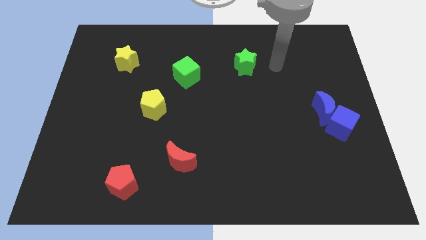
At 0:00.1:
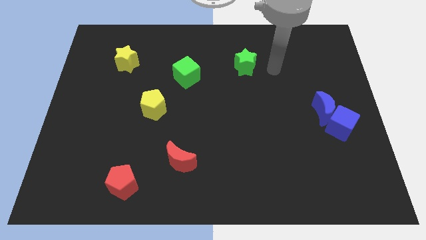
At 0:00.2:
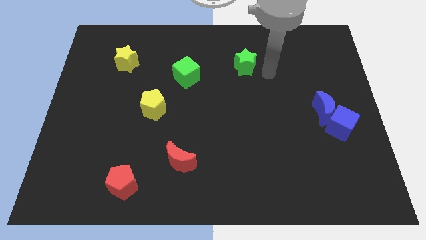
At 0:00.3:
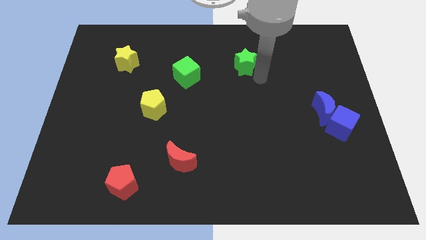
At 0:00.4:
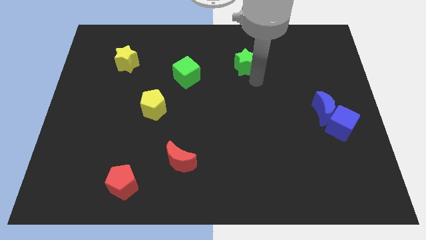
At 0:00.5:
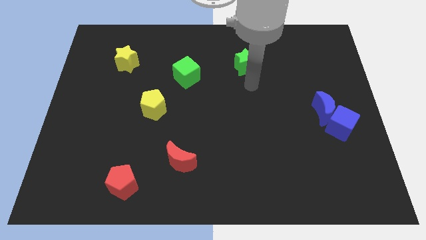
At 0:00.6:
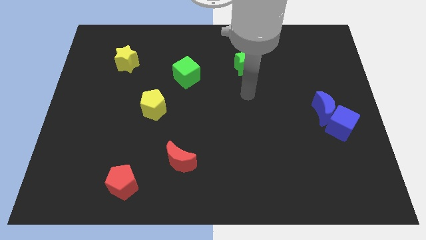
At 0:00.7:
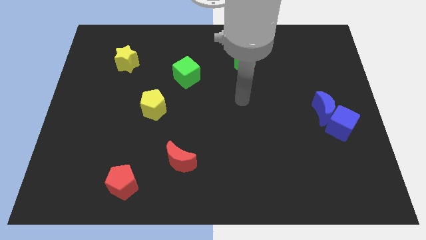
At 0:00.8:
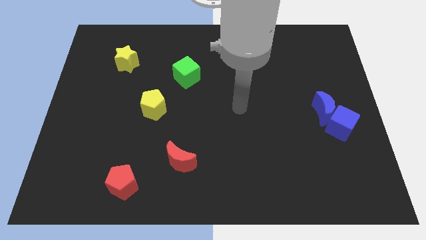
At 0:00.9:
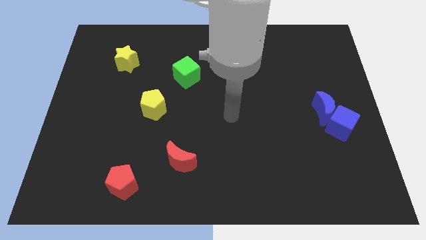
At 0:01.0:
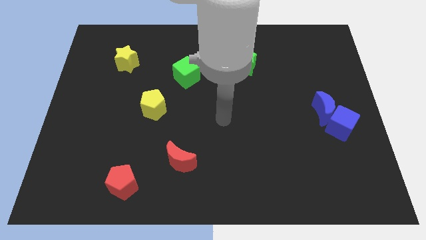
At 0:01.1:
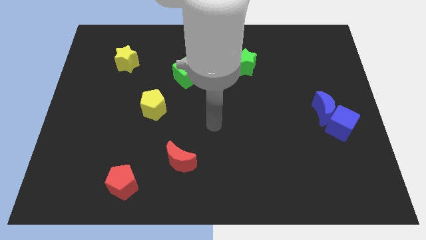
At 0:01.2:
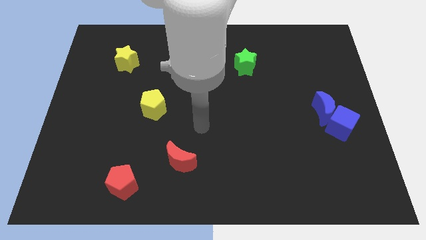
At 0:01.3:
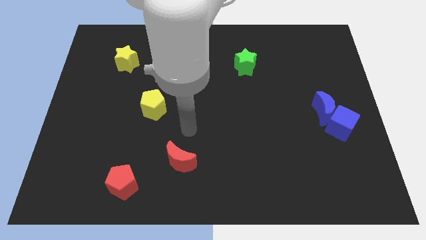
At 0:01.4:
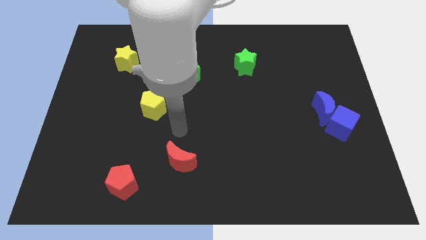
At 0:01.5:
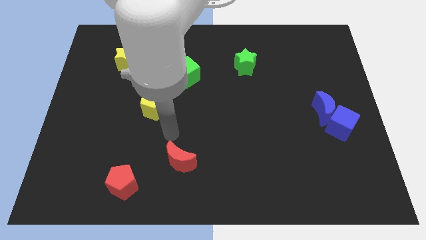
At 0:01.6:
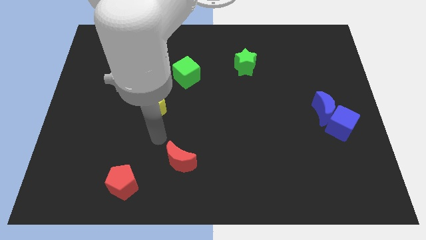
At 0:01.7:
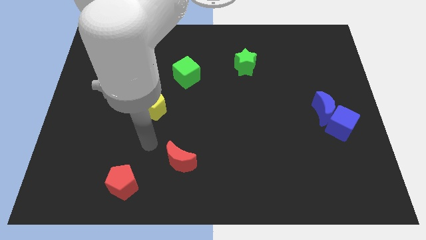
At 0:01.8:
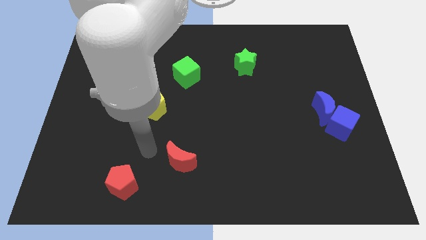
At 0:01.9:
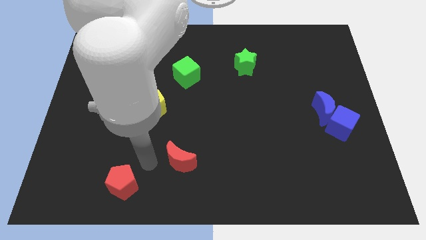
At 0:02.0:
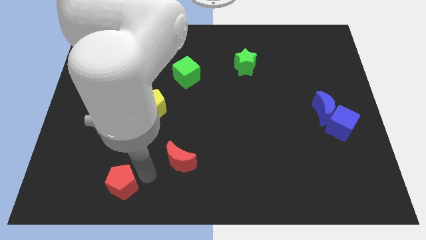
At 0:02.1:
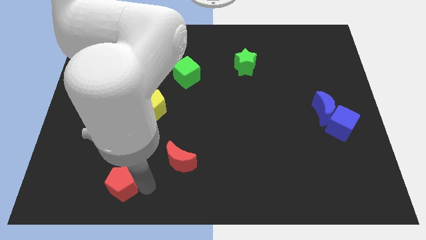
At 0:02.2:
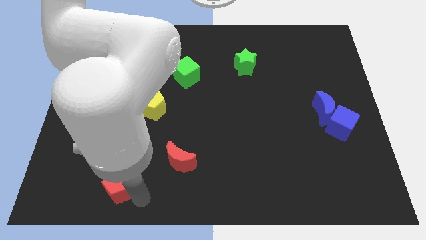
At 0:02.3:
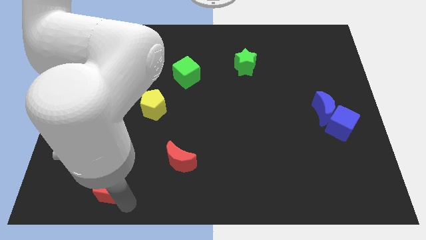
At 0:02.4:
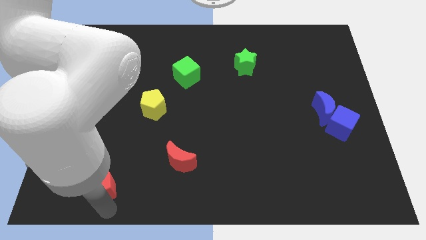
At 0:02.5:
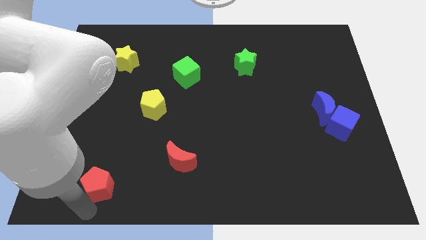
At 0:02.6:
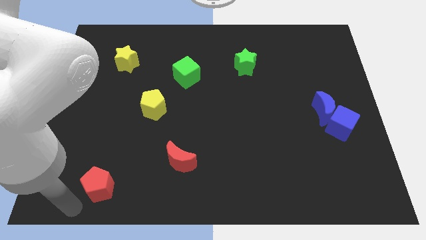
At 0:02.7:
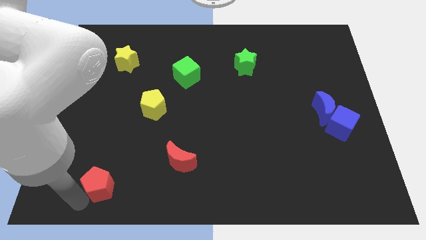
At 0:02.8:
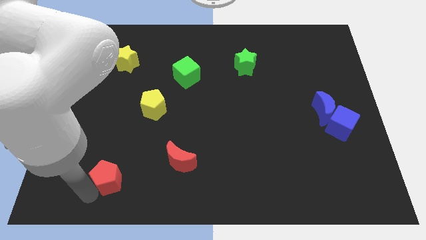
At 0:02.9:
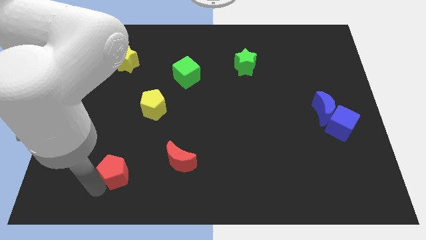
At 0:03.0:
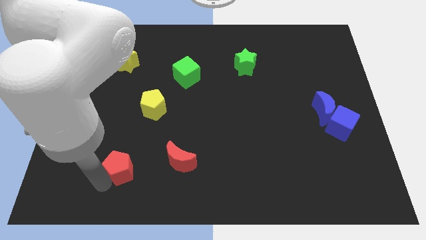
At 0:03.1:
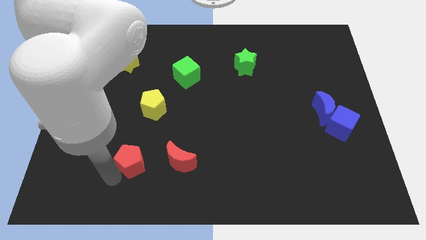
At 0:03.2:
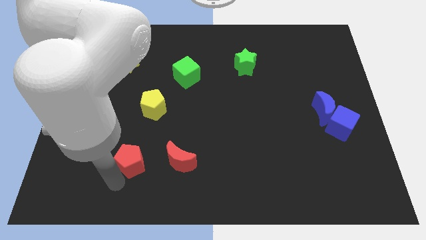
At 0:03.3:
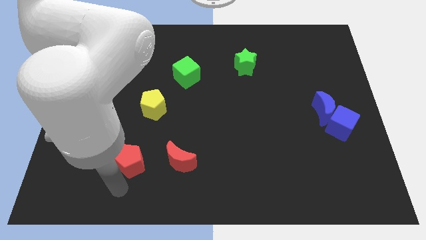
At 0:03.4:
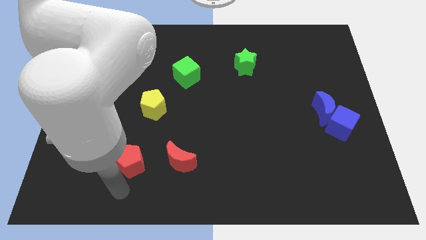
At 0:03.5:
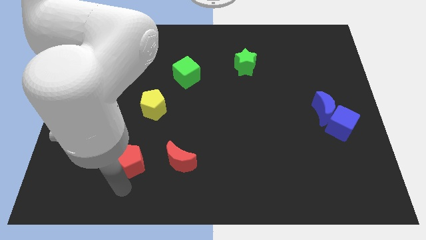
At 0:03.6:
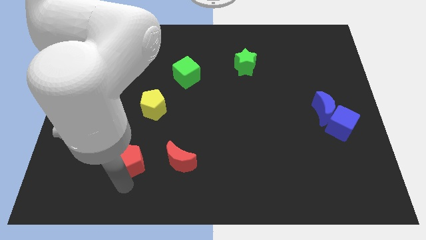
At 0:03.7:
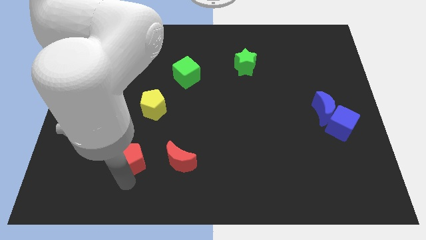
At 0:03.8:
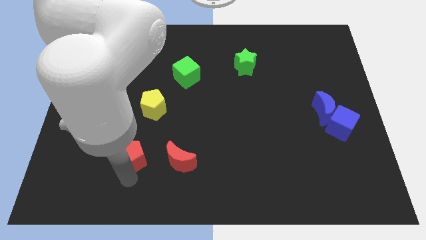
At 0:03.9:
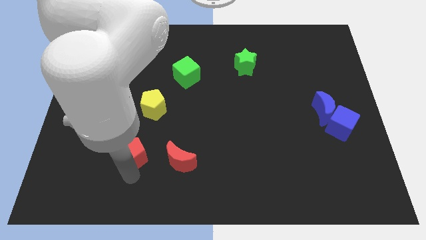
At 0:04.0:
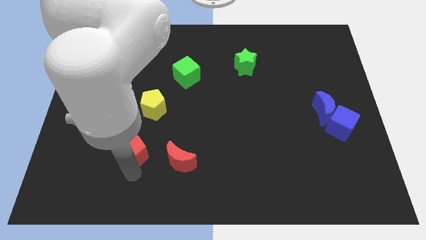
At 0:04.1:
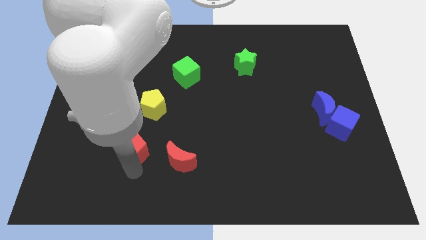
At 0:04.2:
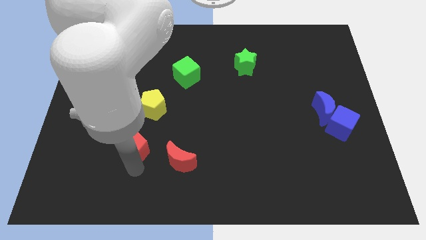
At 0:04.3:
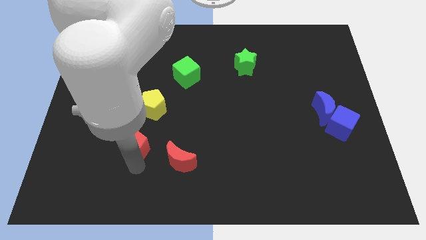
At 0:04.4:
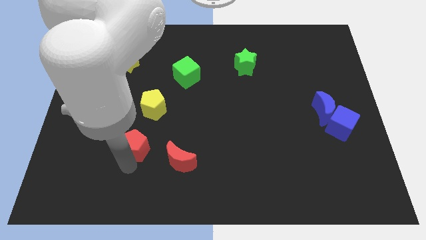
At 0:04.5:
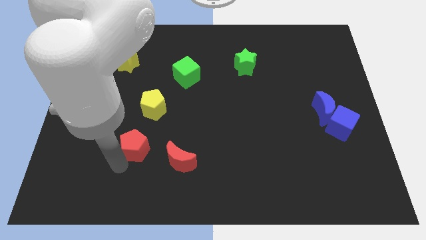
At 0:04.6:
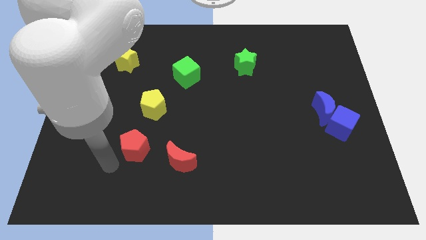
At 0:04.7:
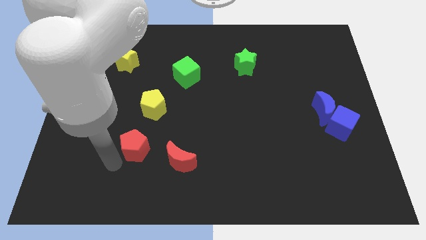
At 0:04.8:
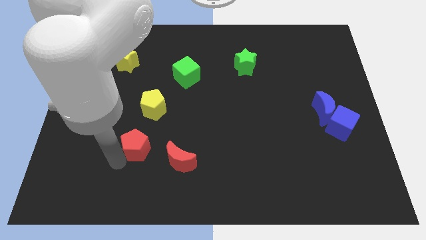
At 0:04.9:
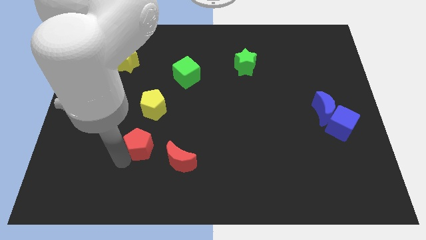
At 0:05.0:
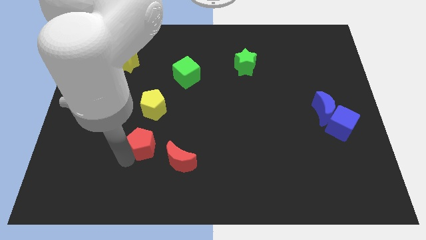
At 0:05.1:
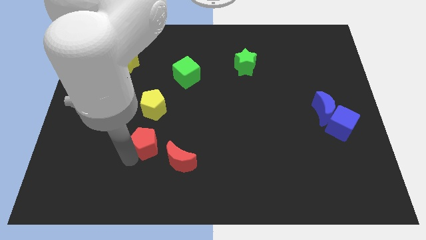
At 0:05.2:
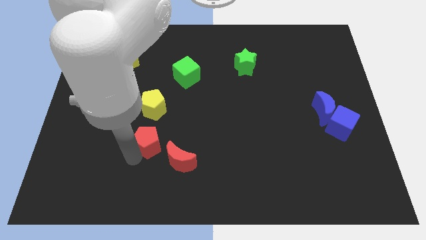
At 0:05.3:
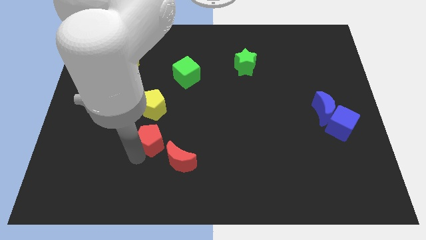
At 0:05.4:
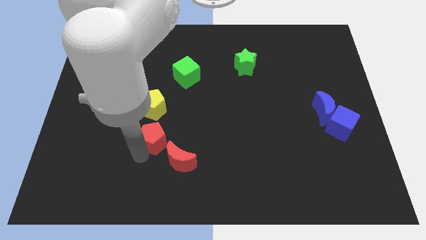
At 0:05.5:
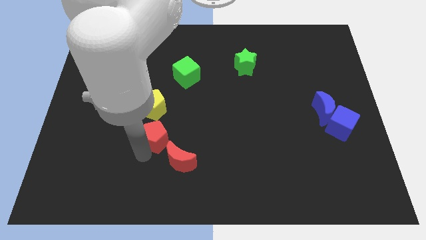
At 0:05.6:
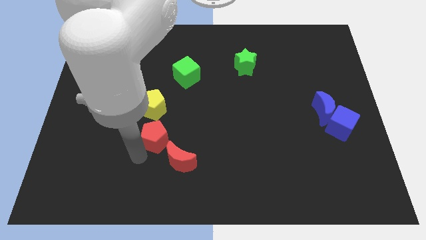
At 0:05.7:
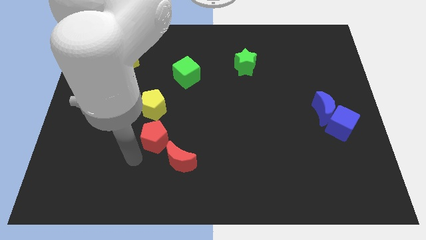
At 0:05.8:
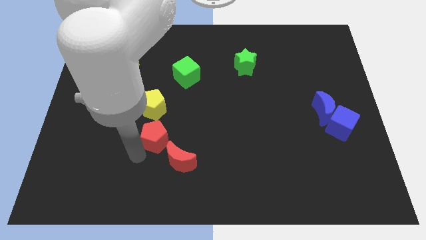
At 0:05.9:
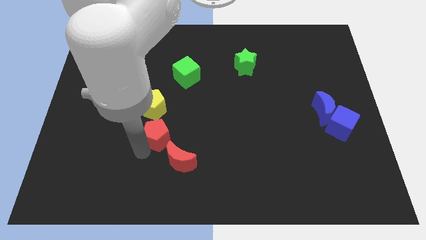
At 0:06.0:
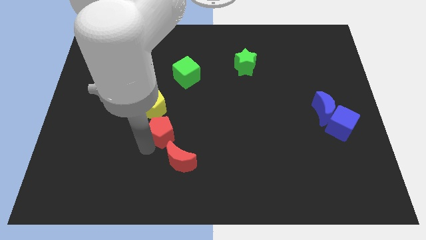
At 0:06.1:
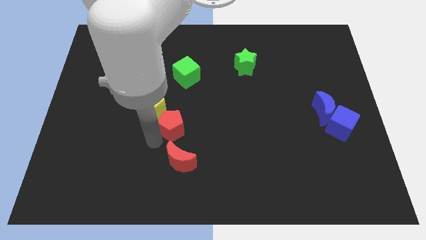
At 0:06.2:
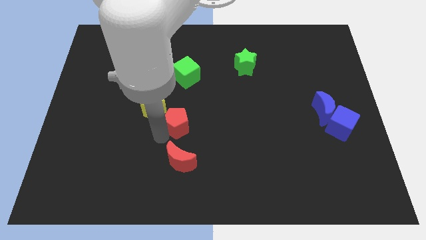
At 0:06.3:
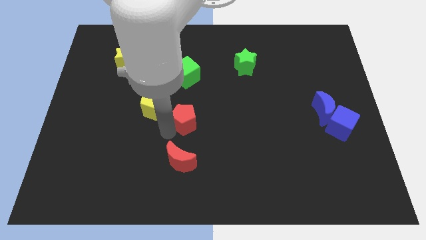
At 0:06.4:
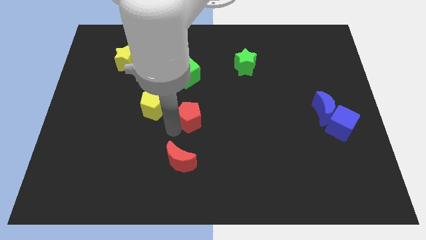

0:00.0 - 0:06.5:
slide the red pentagon up and to the right diagonally

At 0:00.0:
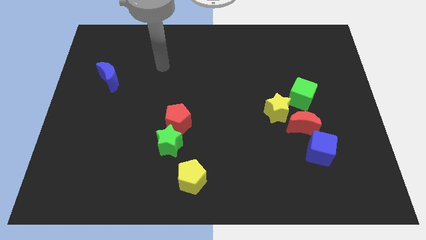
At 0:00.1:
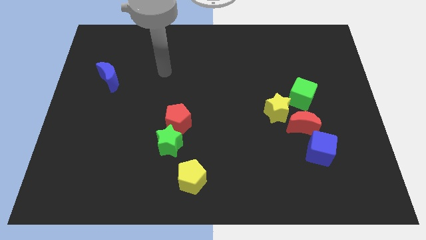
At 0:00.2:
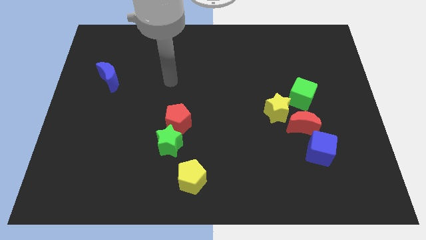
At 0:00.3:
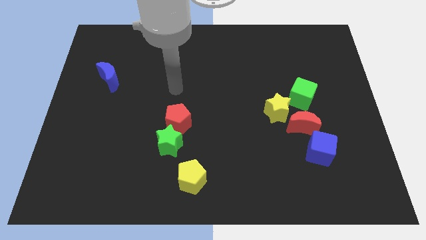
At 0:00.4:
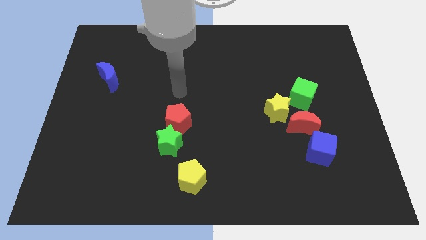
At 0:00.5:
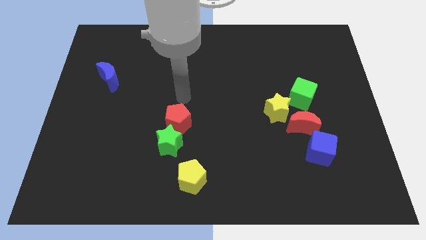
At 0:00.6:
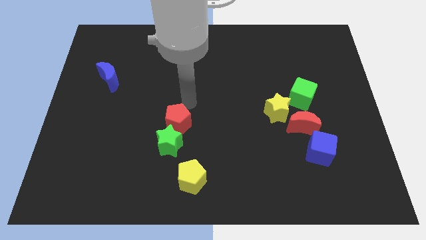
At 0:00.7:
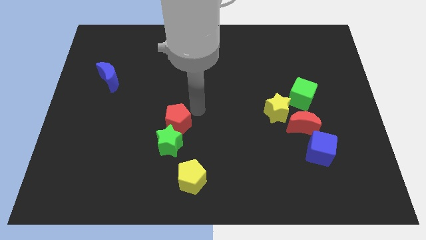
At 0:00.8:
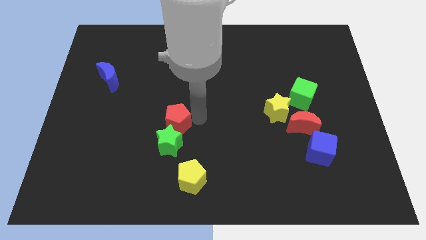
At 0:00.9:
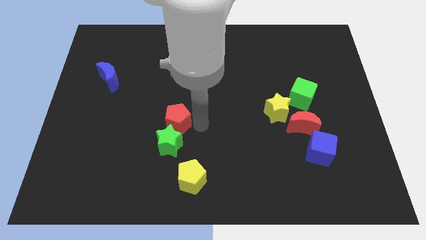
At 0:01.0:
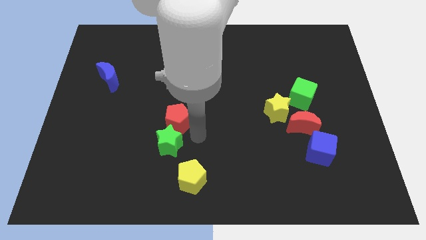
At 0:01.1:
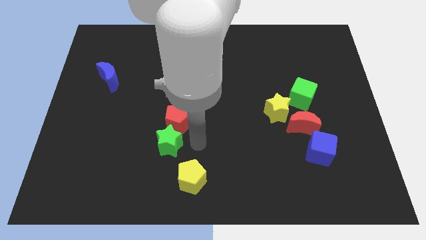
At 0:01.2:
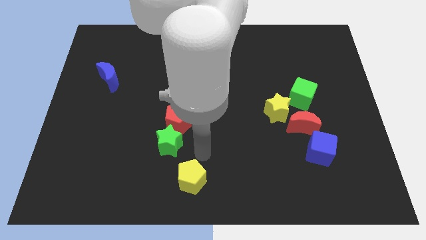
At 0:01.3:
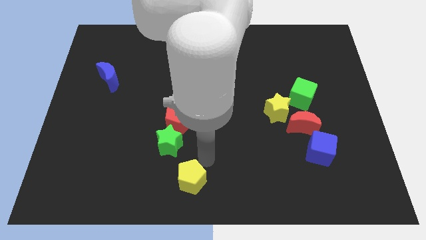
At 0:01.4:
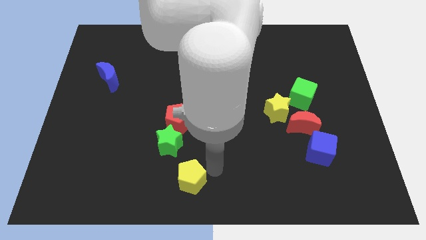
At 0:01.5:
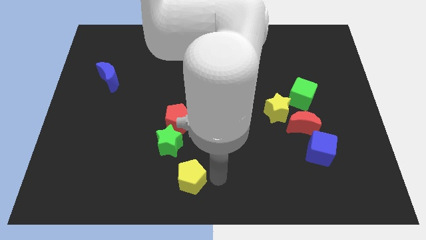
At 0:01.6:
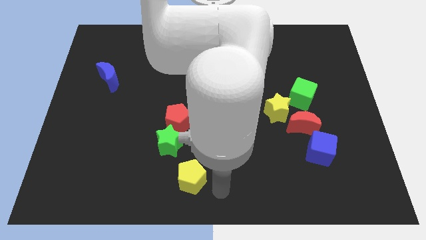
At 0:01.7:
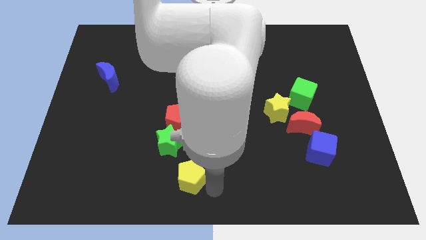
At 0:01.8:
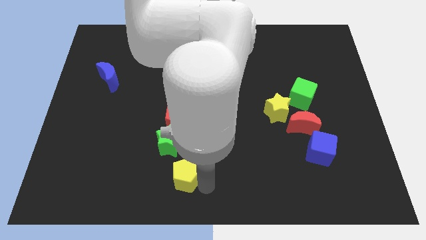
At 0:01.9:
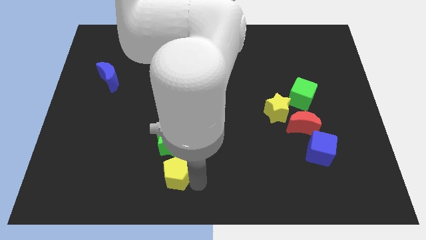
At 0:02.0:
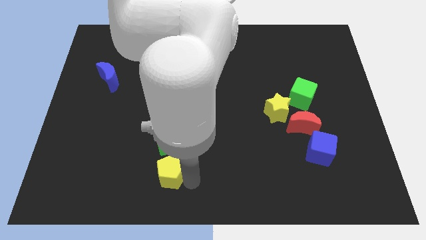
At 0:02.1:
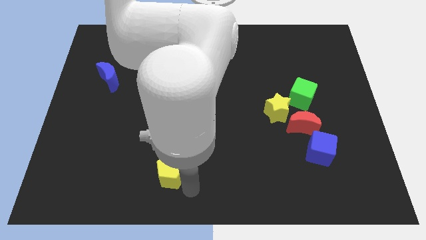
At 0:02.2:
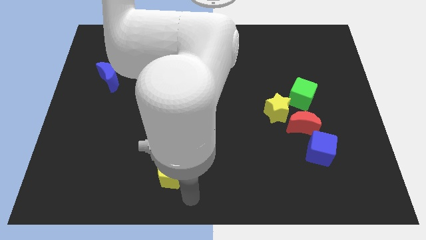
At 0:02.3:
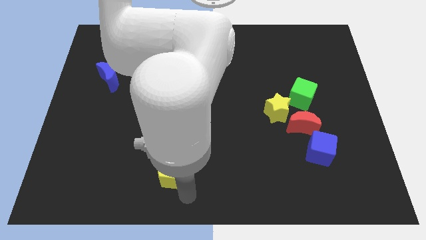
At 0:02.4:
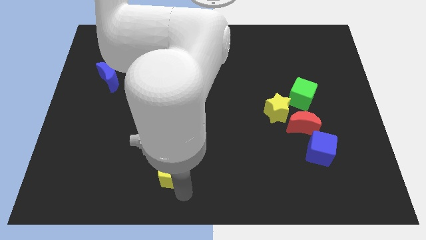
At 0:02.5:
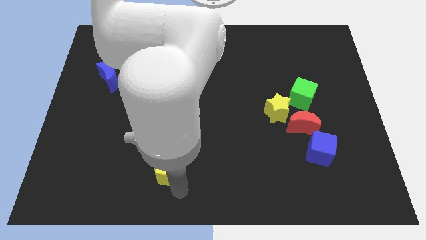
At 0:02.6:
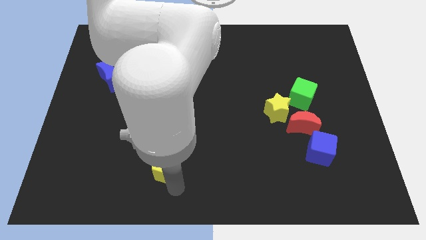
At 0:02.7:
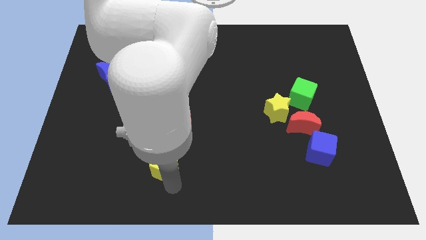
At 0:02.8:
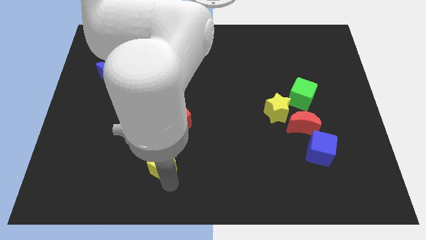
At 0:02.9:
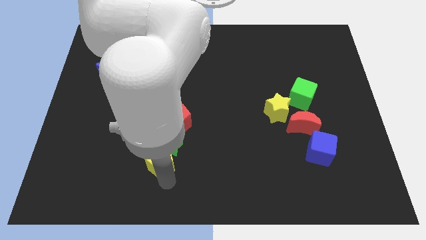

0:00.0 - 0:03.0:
slightly move the yellow pentagon up and left
